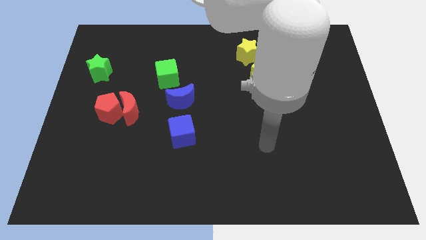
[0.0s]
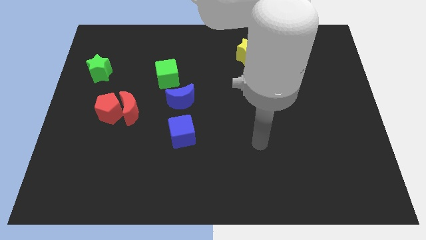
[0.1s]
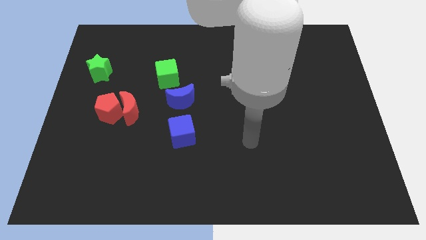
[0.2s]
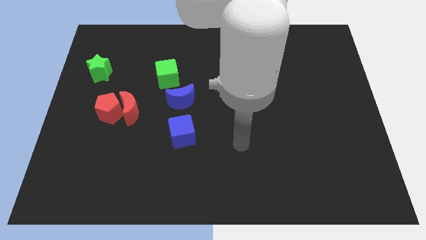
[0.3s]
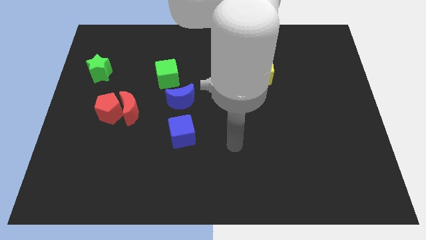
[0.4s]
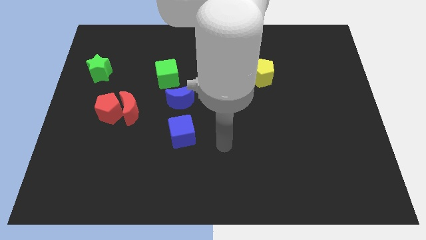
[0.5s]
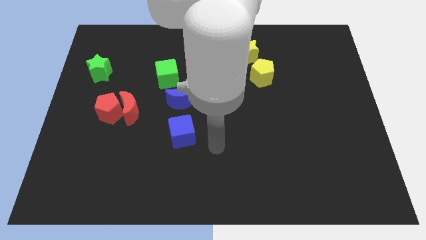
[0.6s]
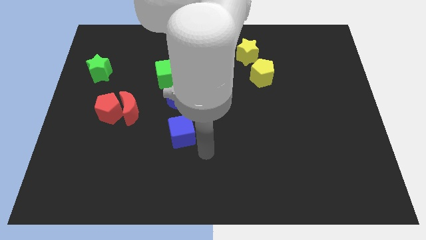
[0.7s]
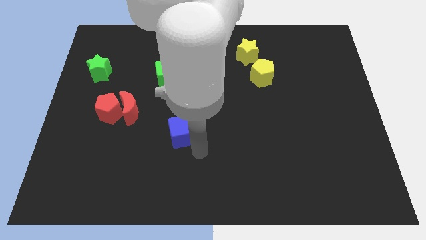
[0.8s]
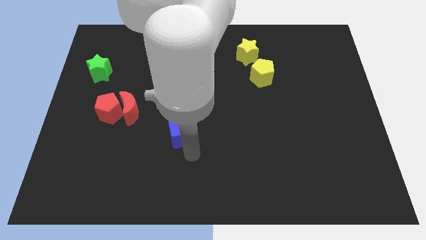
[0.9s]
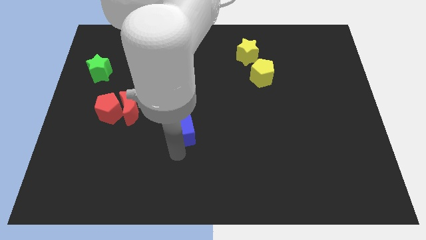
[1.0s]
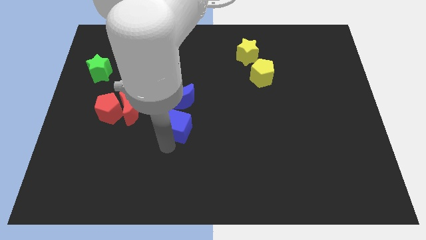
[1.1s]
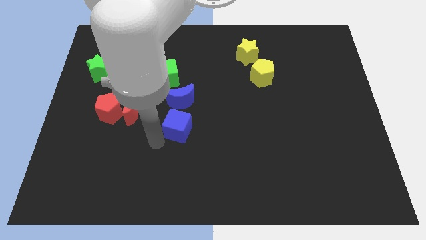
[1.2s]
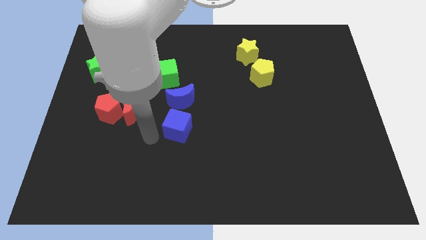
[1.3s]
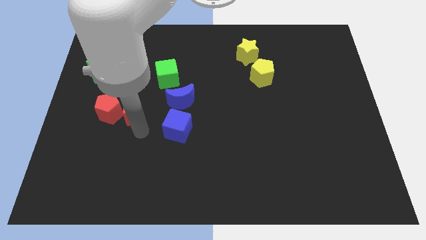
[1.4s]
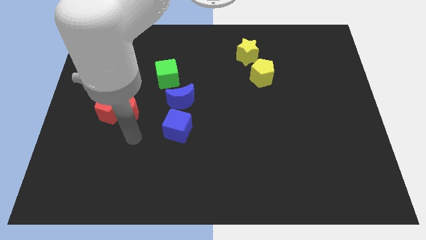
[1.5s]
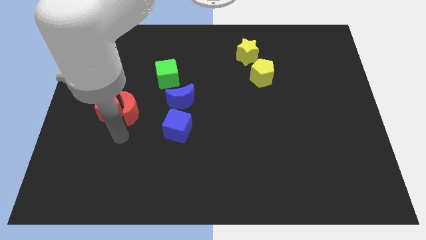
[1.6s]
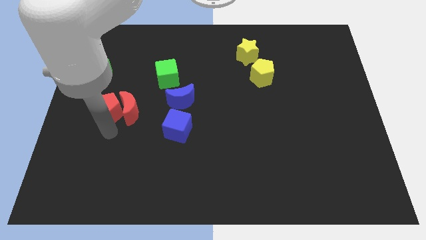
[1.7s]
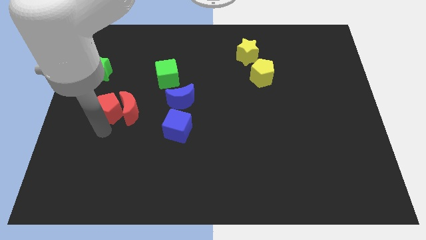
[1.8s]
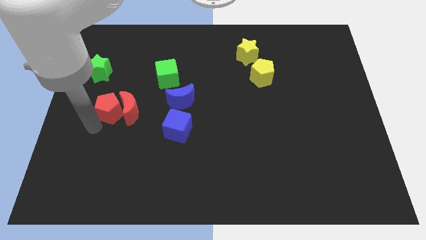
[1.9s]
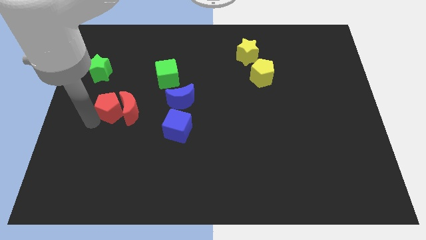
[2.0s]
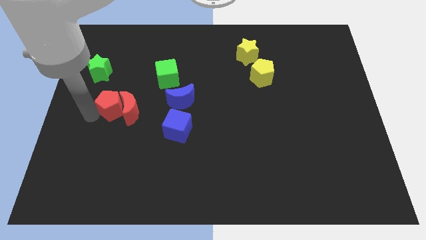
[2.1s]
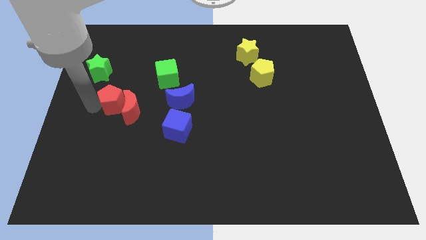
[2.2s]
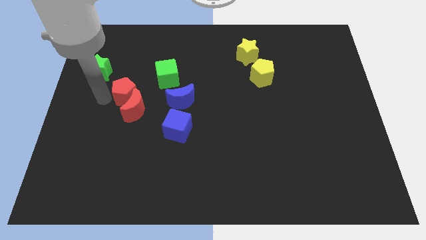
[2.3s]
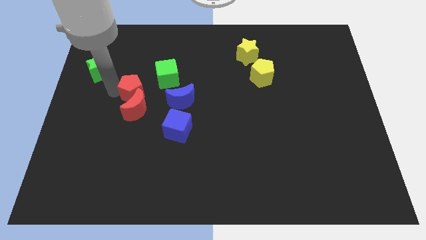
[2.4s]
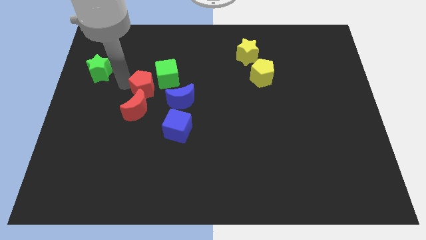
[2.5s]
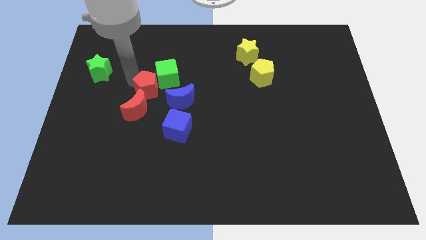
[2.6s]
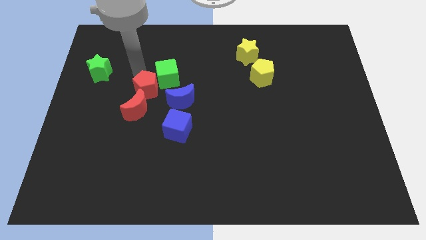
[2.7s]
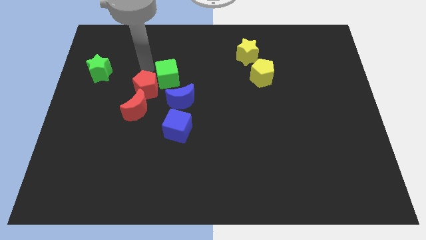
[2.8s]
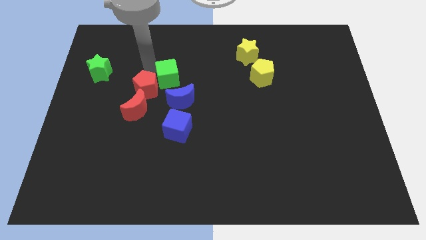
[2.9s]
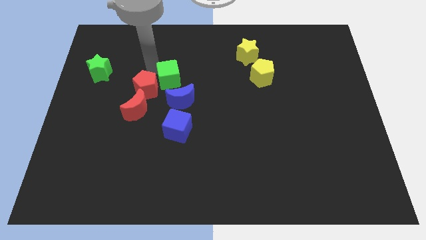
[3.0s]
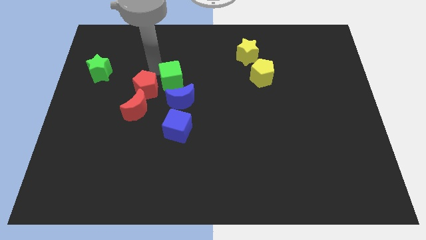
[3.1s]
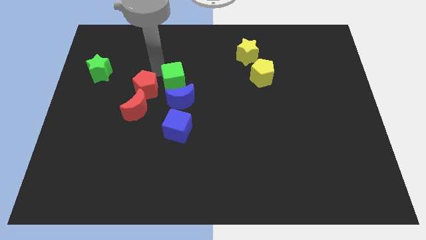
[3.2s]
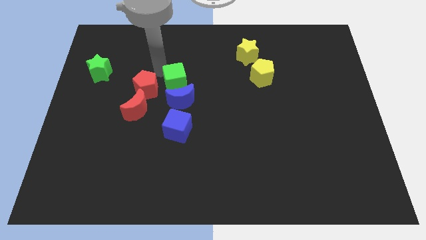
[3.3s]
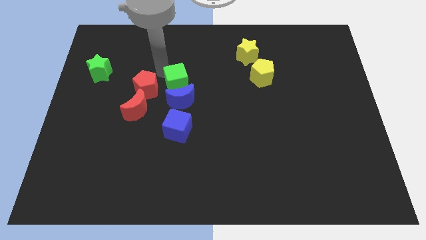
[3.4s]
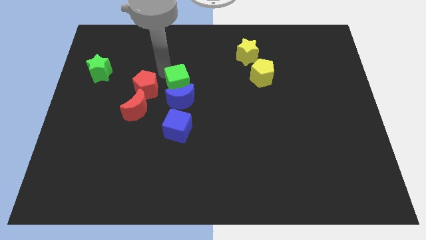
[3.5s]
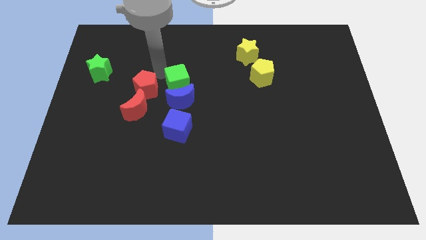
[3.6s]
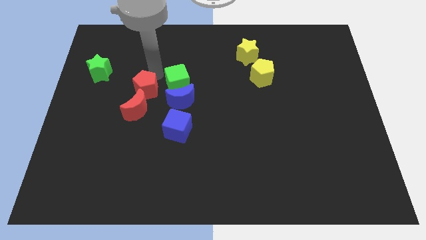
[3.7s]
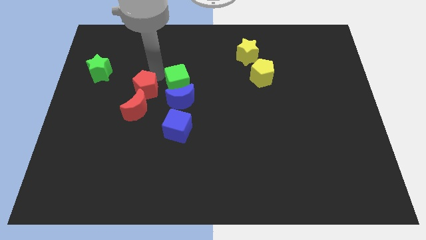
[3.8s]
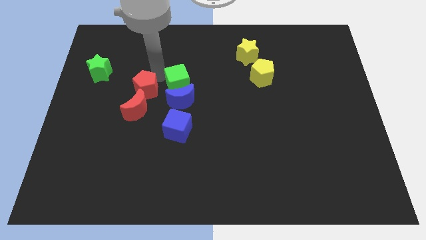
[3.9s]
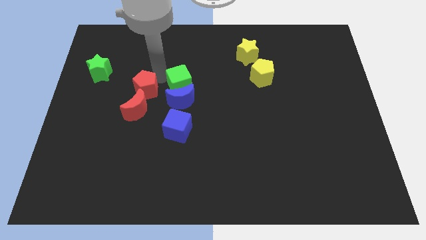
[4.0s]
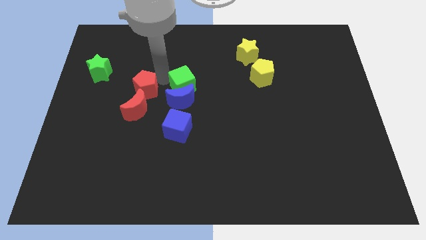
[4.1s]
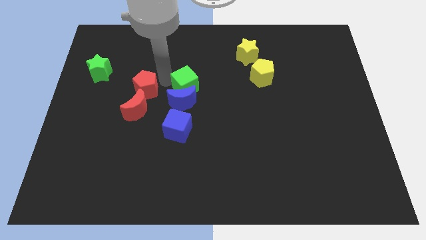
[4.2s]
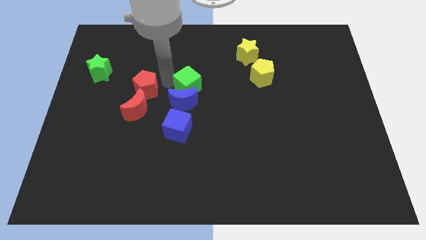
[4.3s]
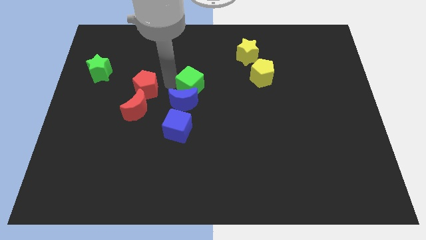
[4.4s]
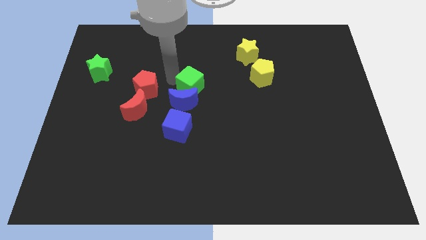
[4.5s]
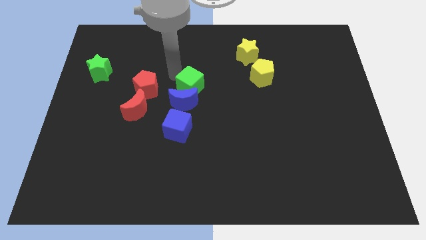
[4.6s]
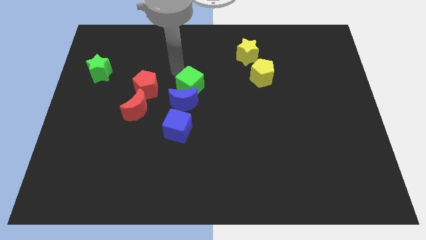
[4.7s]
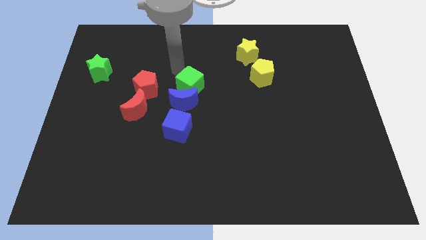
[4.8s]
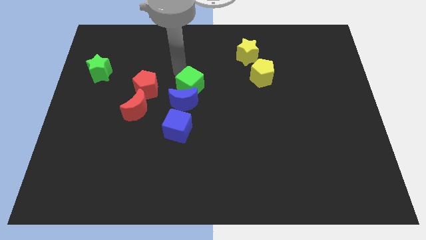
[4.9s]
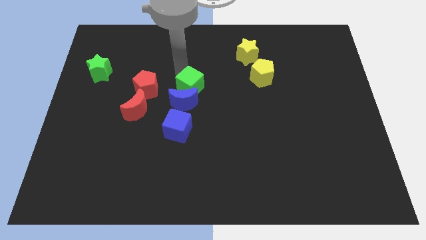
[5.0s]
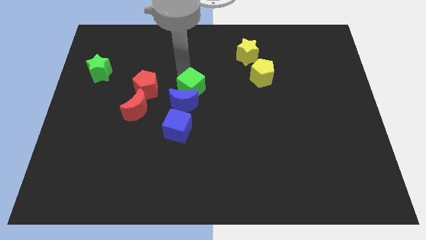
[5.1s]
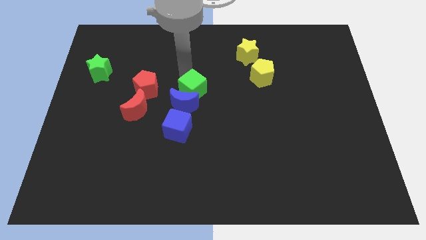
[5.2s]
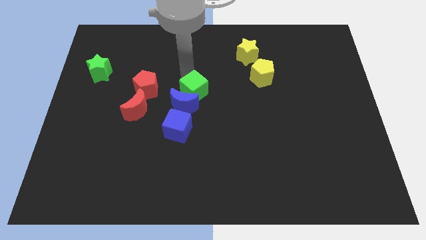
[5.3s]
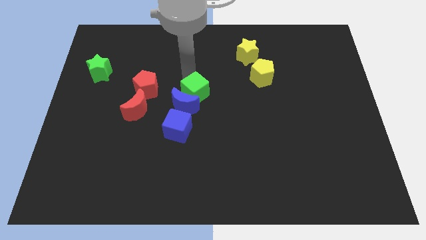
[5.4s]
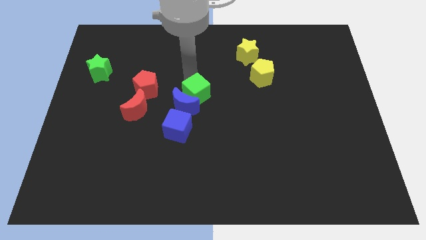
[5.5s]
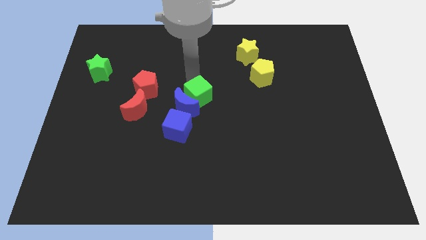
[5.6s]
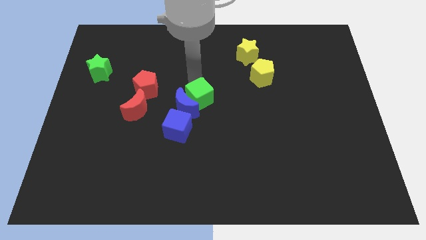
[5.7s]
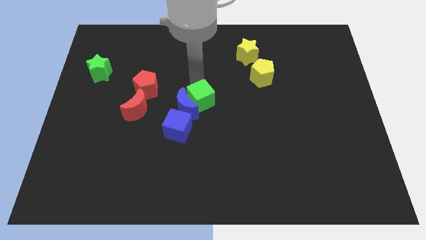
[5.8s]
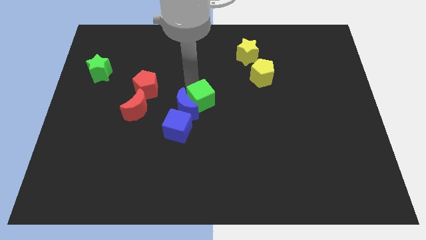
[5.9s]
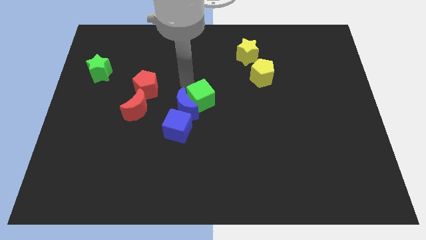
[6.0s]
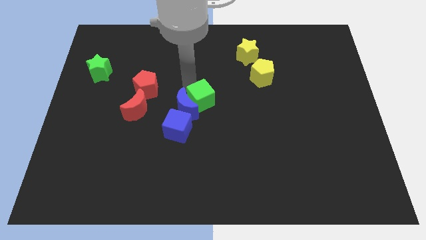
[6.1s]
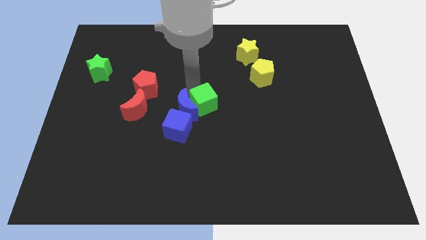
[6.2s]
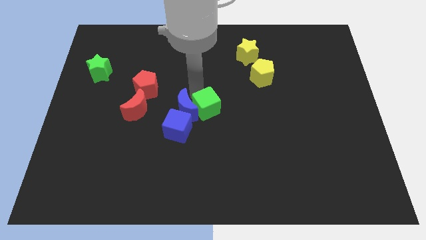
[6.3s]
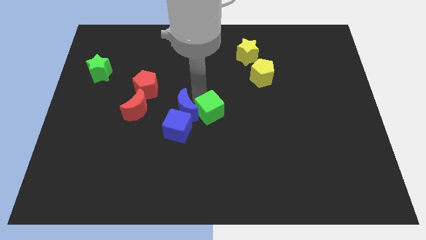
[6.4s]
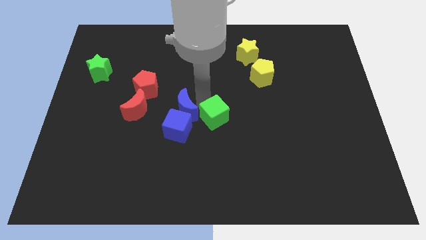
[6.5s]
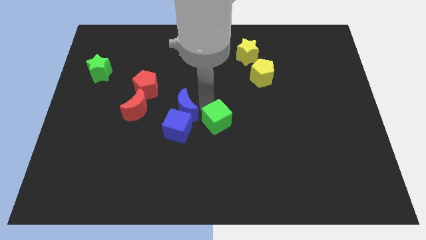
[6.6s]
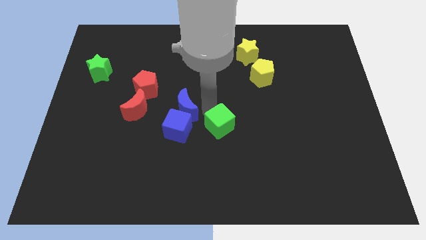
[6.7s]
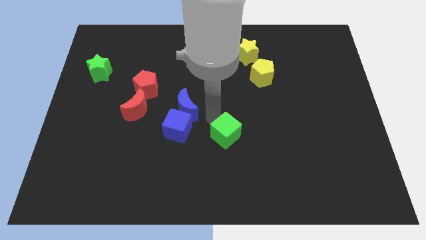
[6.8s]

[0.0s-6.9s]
slide the green cube downwards and right

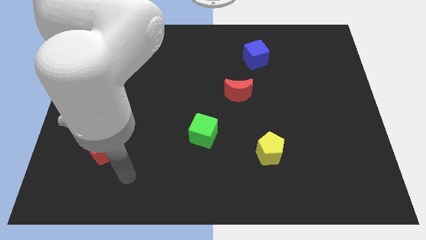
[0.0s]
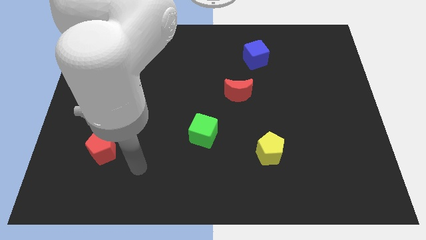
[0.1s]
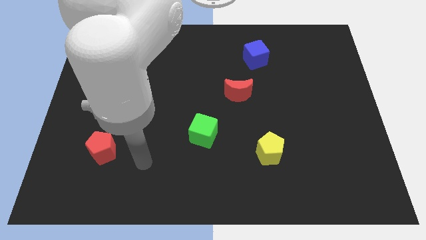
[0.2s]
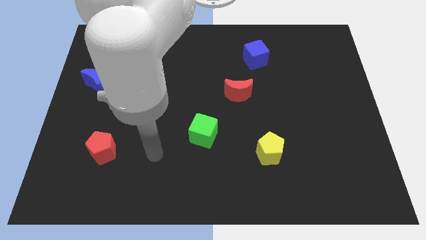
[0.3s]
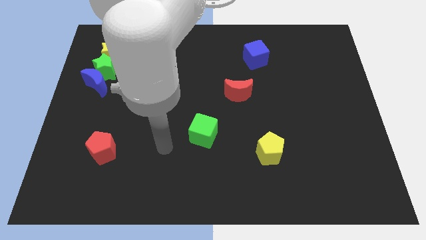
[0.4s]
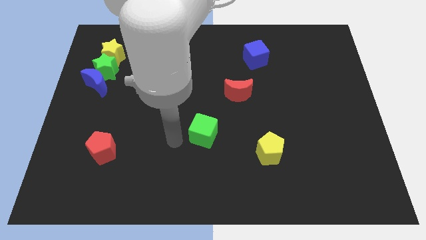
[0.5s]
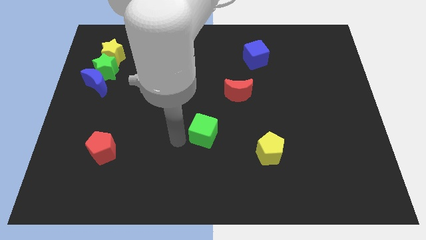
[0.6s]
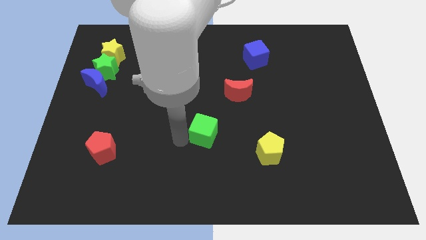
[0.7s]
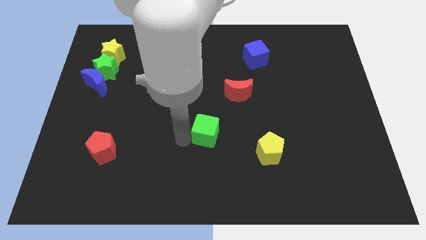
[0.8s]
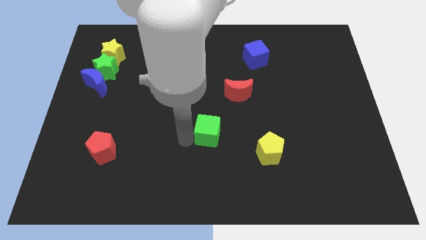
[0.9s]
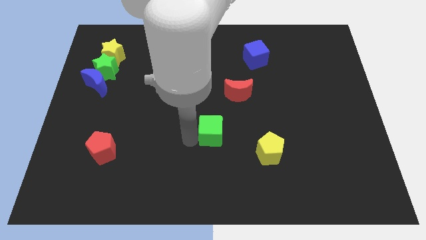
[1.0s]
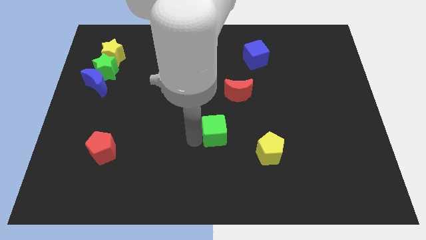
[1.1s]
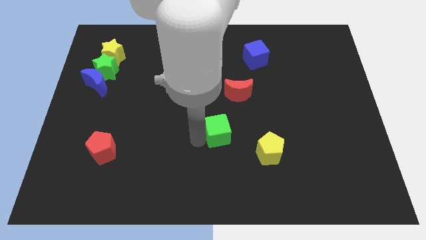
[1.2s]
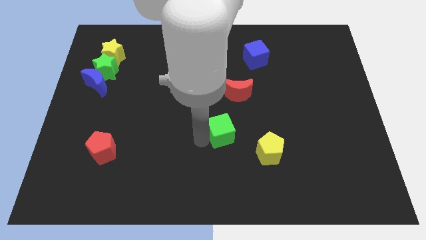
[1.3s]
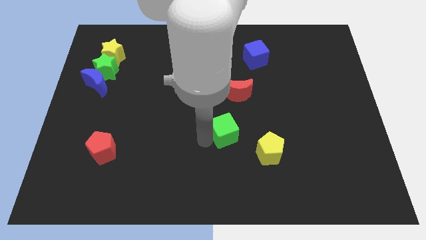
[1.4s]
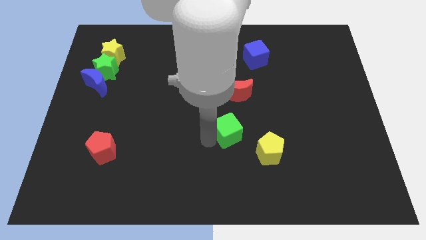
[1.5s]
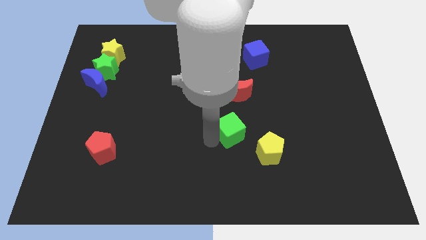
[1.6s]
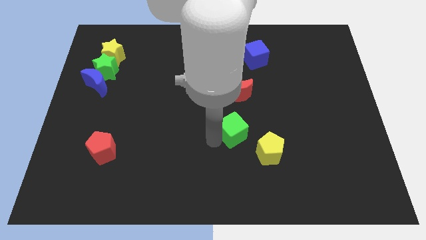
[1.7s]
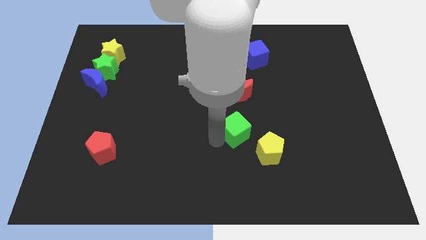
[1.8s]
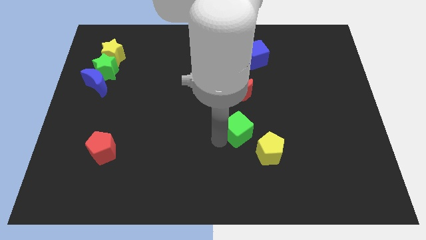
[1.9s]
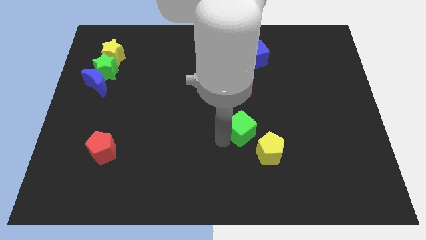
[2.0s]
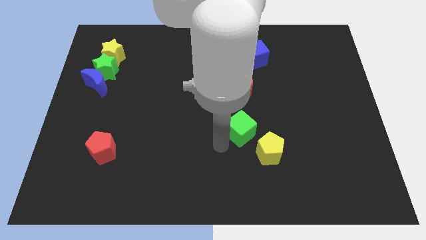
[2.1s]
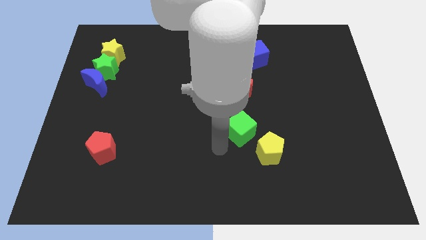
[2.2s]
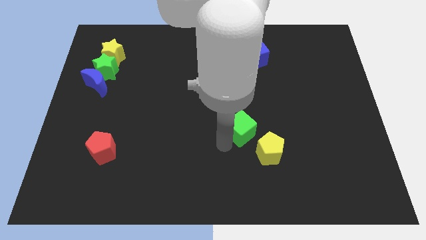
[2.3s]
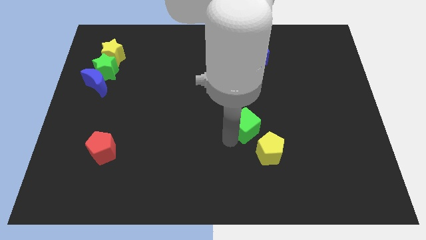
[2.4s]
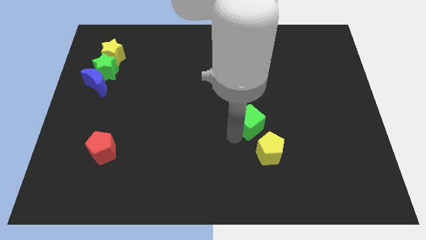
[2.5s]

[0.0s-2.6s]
move the green cube upwards and right a little
